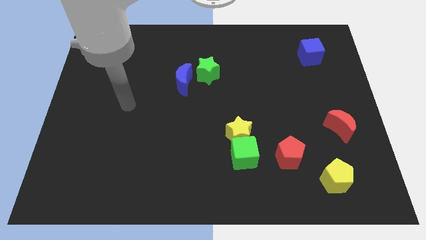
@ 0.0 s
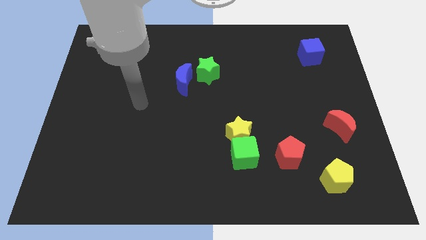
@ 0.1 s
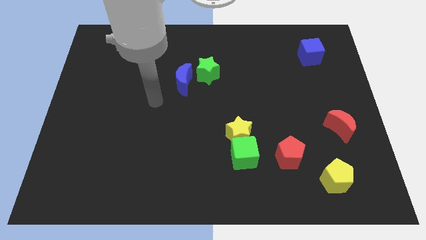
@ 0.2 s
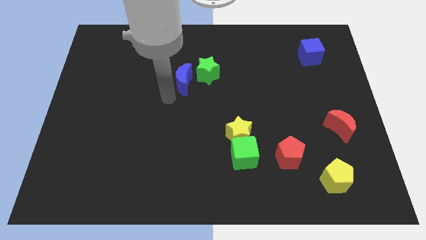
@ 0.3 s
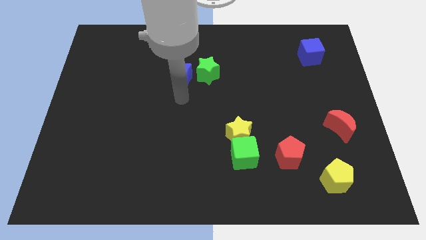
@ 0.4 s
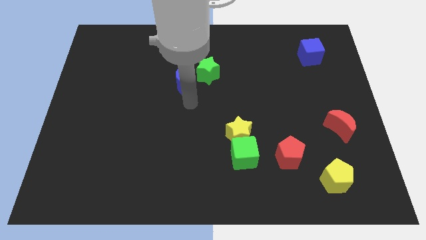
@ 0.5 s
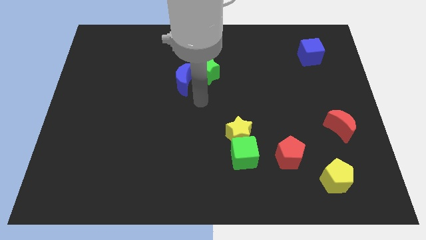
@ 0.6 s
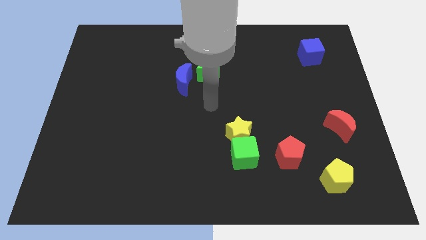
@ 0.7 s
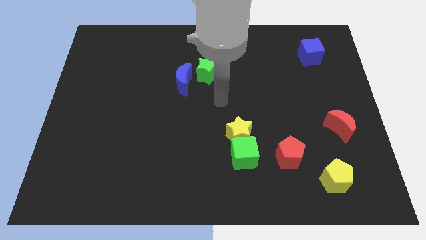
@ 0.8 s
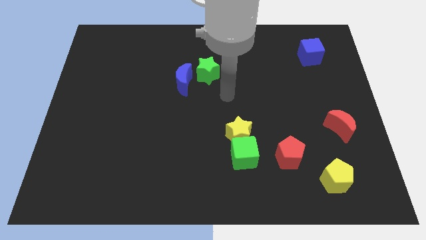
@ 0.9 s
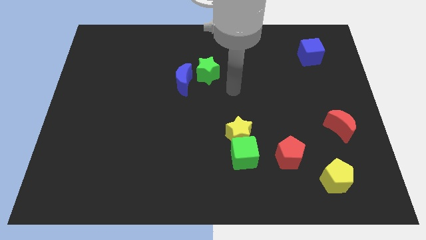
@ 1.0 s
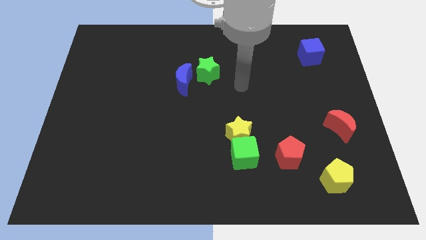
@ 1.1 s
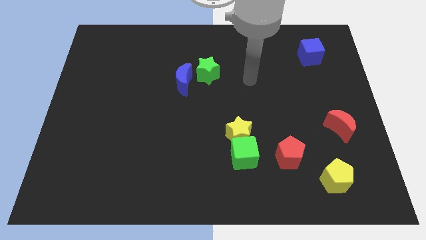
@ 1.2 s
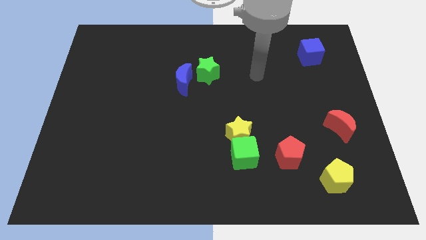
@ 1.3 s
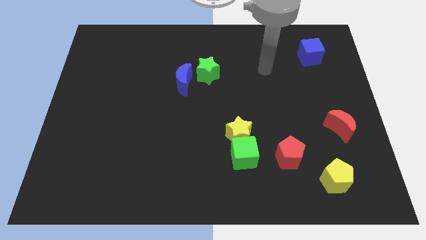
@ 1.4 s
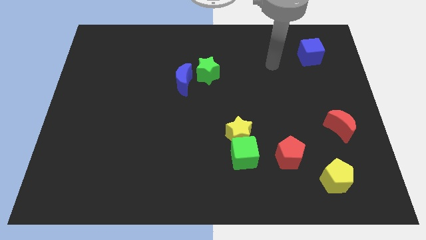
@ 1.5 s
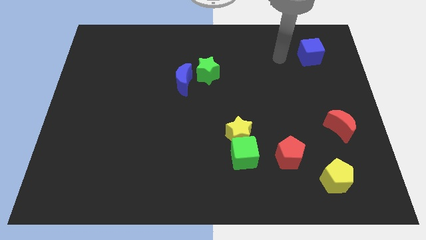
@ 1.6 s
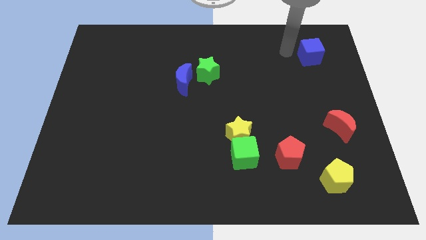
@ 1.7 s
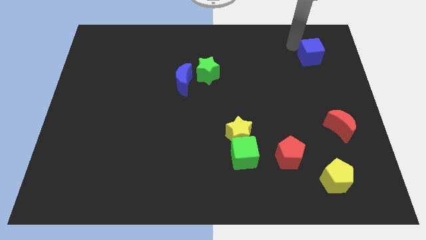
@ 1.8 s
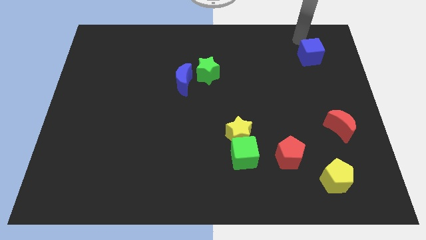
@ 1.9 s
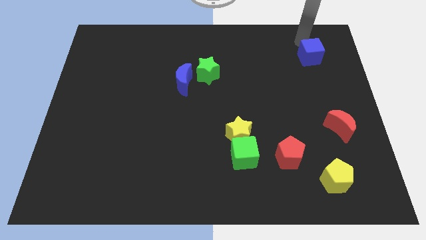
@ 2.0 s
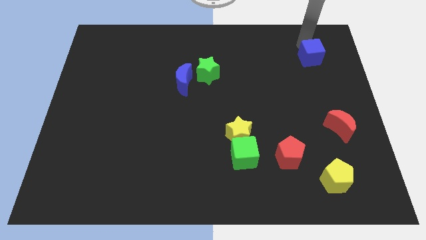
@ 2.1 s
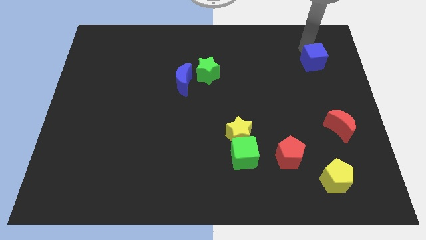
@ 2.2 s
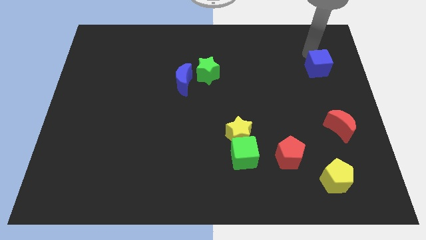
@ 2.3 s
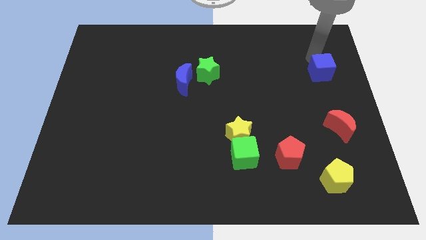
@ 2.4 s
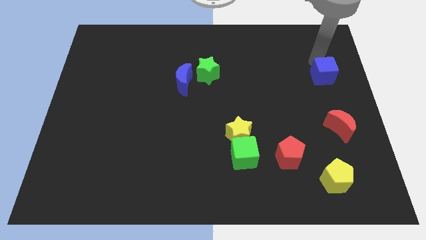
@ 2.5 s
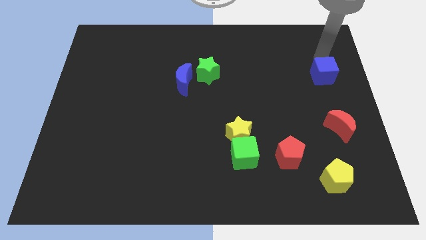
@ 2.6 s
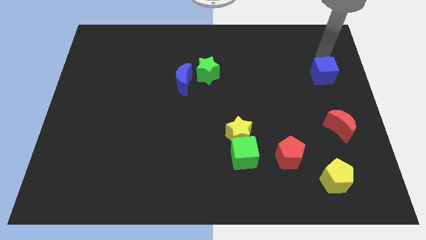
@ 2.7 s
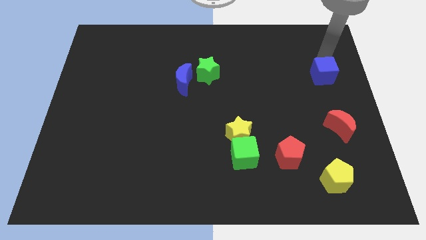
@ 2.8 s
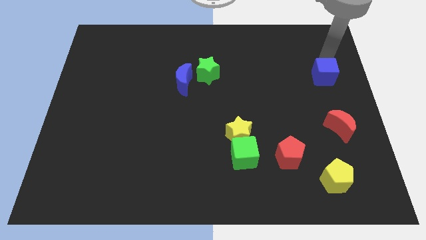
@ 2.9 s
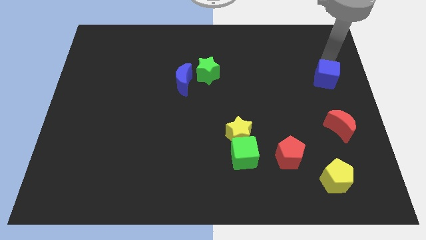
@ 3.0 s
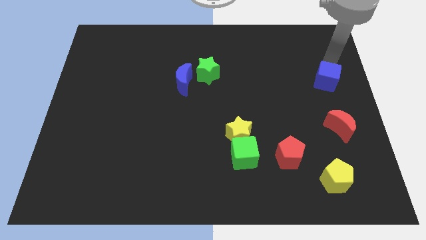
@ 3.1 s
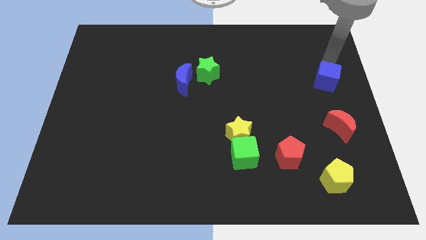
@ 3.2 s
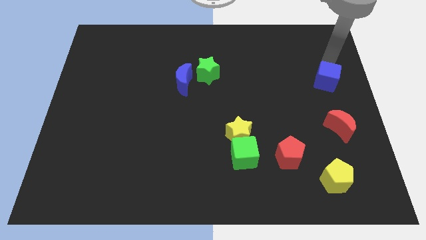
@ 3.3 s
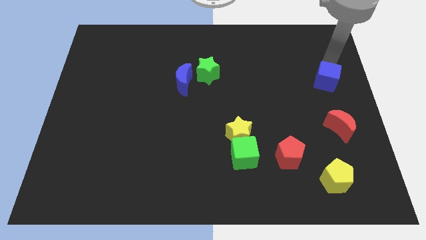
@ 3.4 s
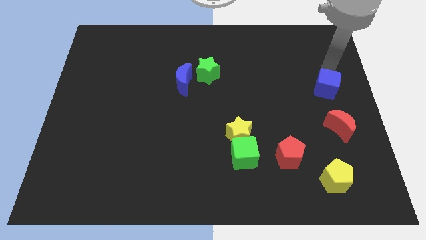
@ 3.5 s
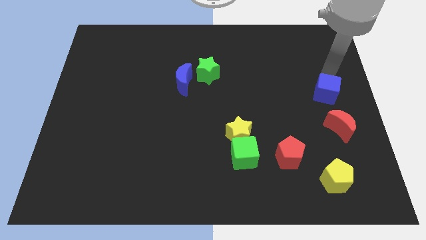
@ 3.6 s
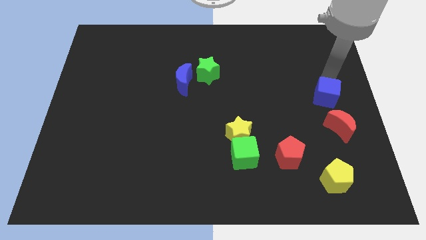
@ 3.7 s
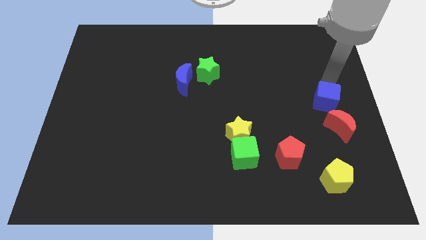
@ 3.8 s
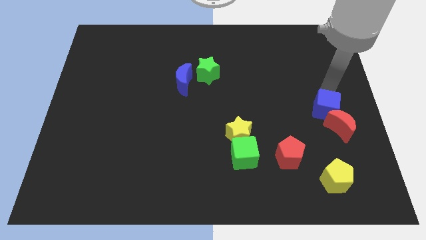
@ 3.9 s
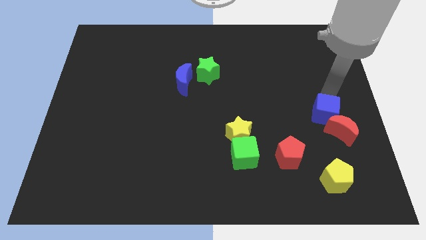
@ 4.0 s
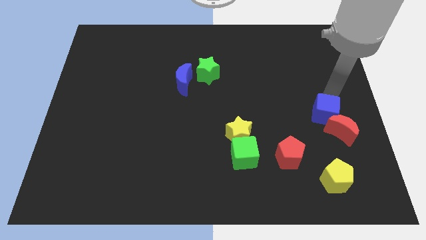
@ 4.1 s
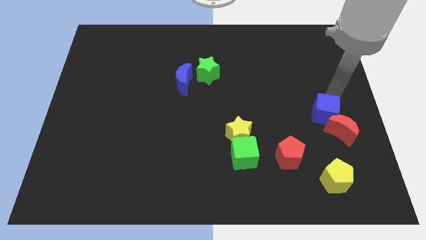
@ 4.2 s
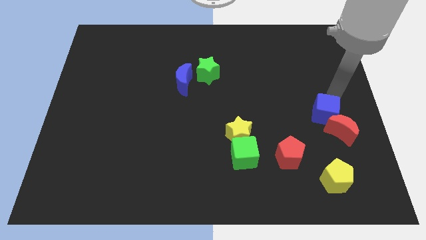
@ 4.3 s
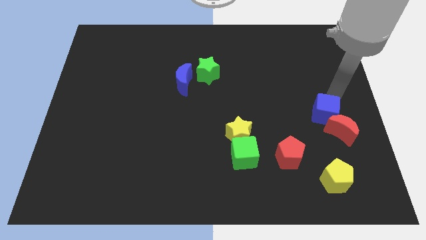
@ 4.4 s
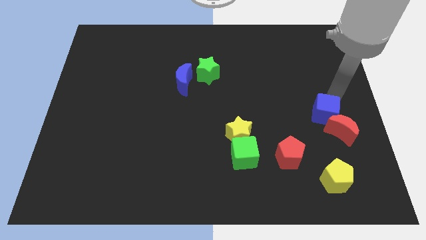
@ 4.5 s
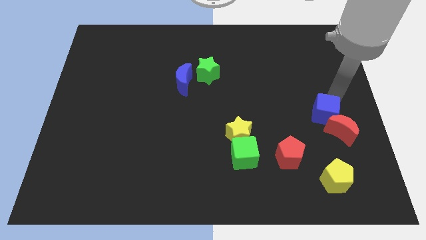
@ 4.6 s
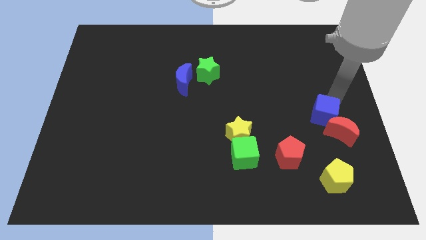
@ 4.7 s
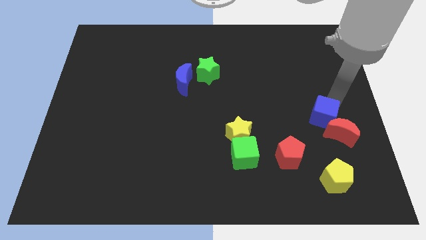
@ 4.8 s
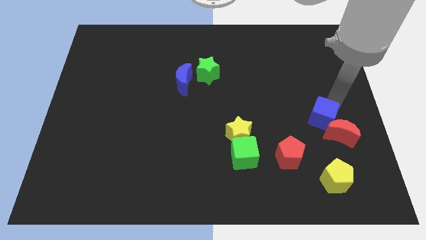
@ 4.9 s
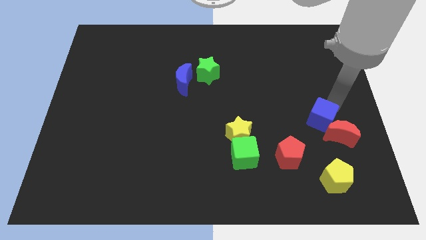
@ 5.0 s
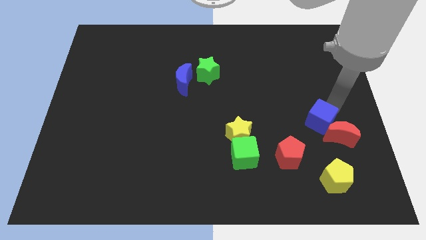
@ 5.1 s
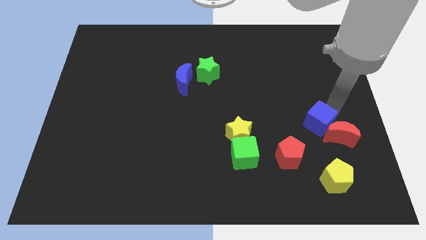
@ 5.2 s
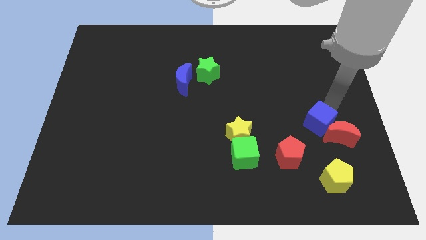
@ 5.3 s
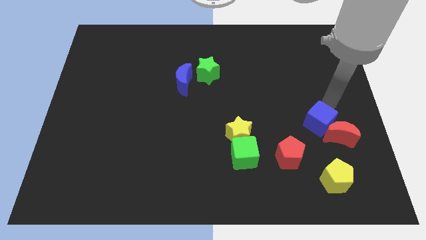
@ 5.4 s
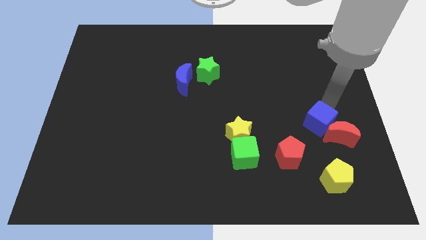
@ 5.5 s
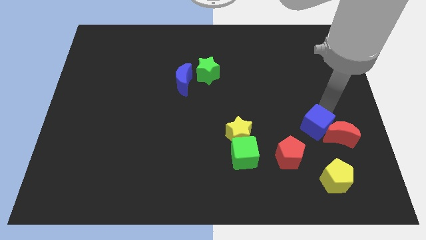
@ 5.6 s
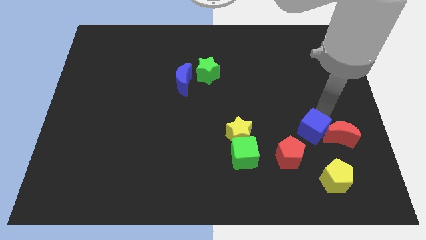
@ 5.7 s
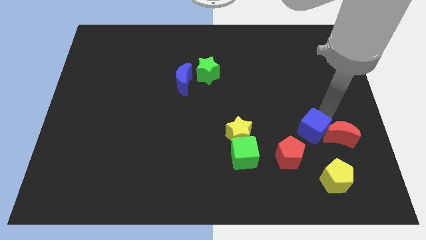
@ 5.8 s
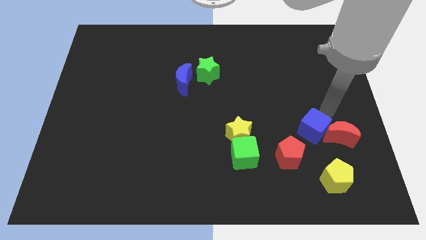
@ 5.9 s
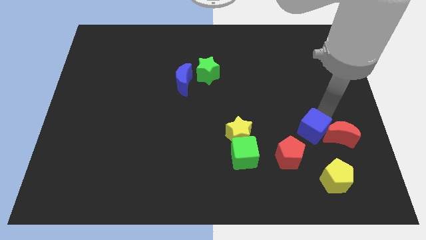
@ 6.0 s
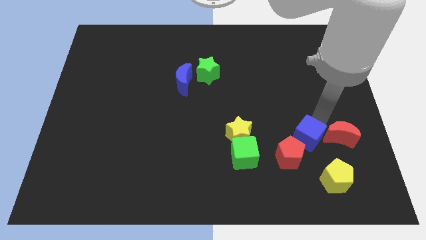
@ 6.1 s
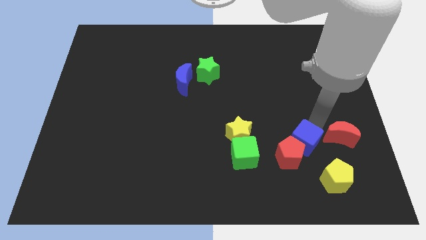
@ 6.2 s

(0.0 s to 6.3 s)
move the blue cube to the red pentagon
